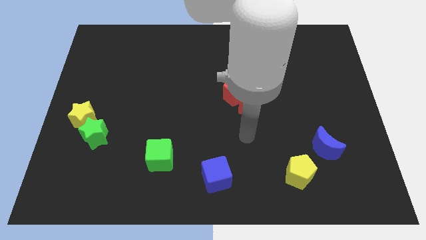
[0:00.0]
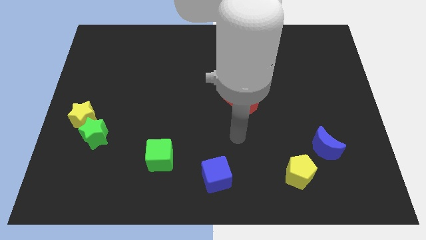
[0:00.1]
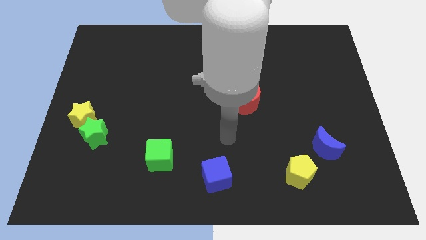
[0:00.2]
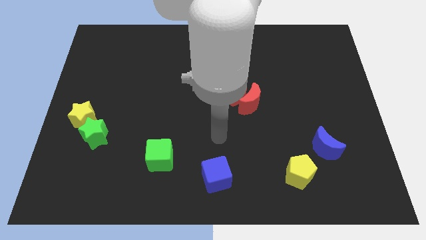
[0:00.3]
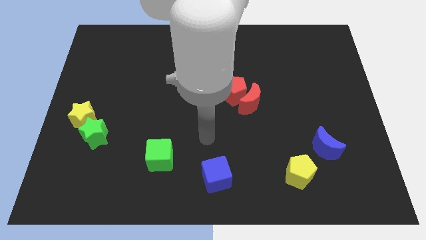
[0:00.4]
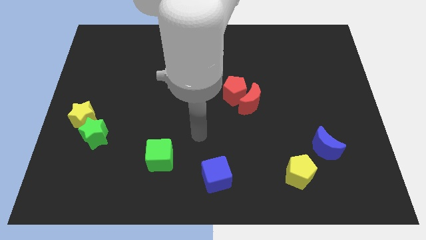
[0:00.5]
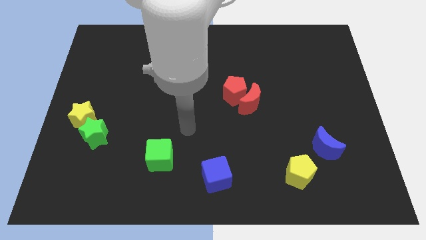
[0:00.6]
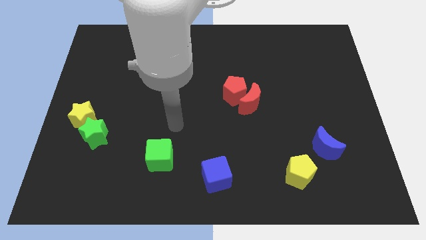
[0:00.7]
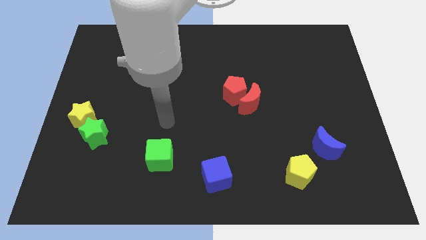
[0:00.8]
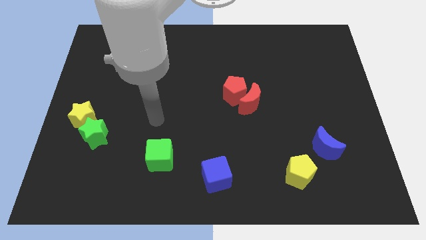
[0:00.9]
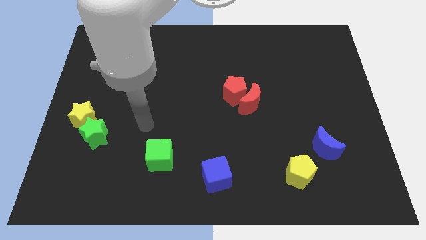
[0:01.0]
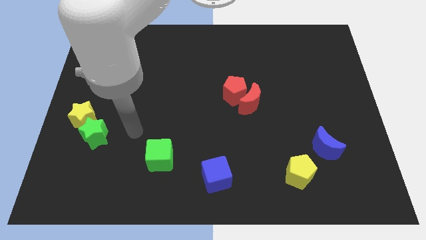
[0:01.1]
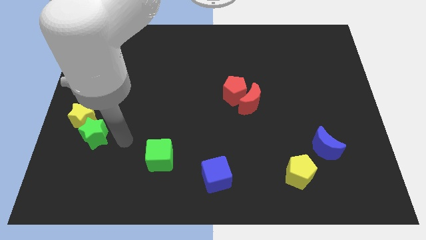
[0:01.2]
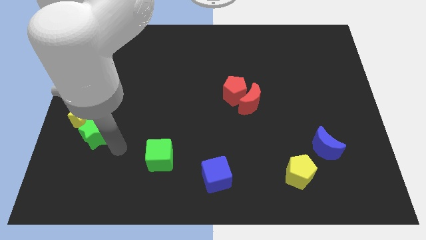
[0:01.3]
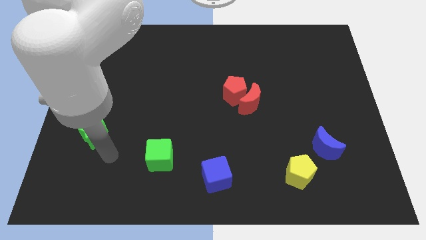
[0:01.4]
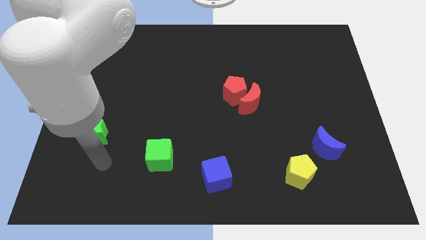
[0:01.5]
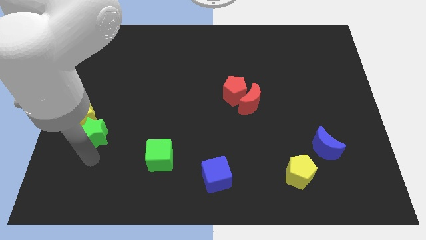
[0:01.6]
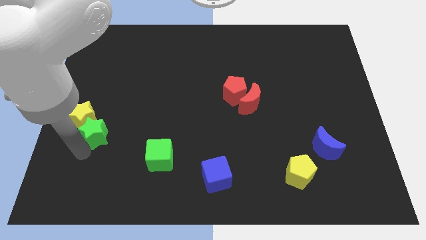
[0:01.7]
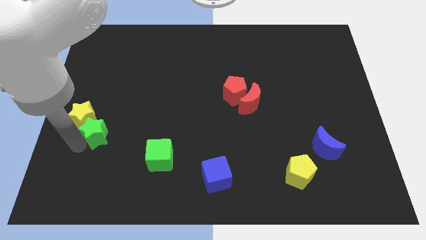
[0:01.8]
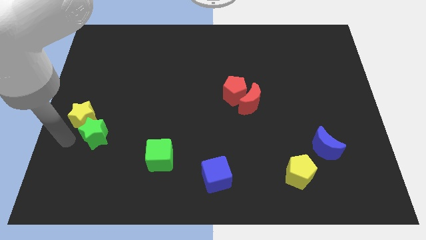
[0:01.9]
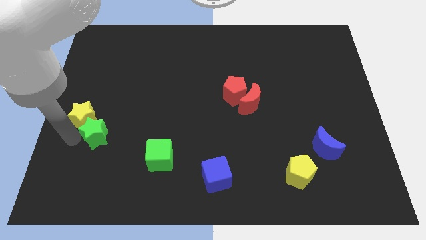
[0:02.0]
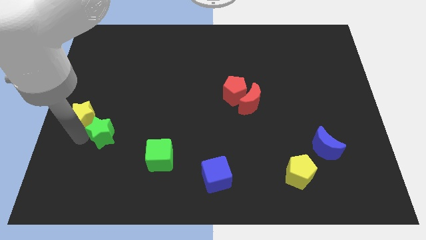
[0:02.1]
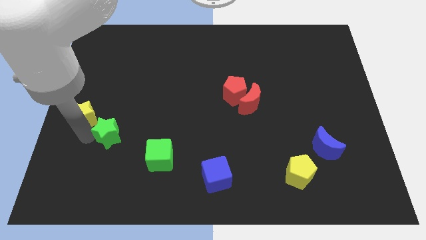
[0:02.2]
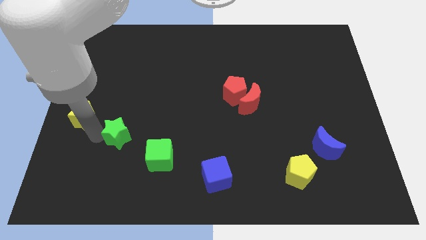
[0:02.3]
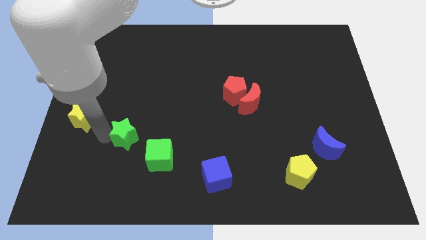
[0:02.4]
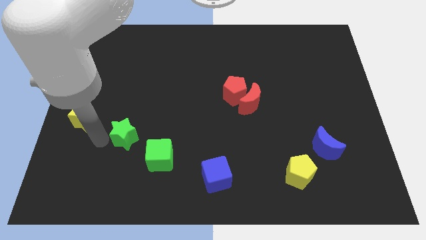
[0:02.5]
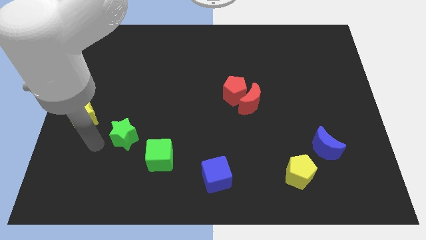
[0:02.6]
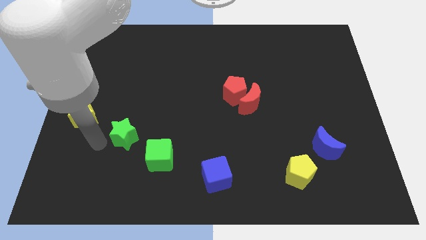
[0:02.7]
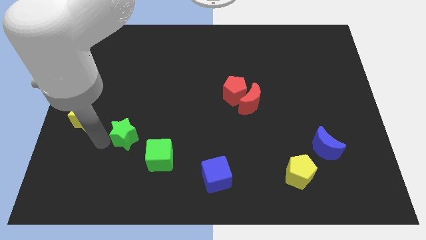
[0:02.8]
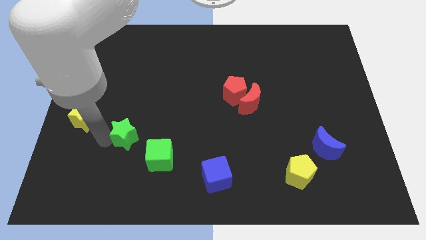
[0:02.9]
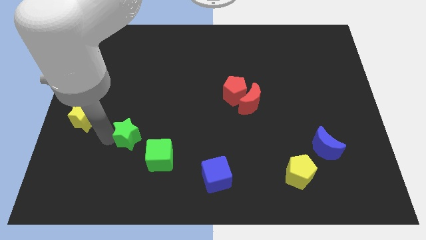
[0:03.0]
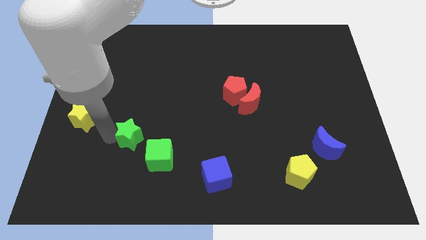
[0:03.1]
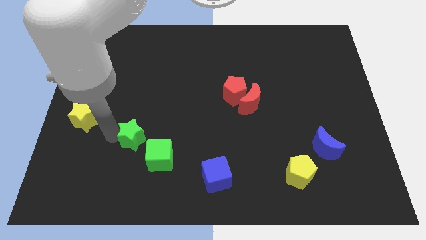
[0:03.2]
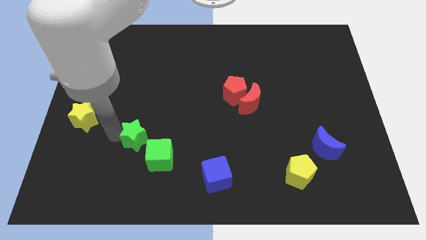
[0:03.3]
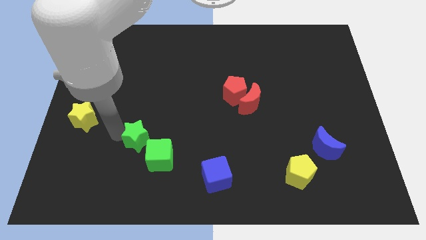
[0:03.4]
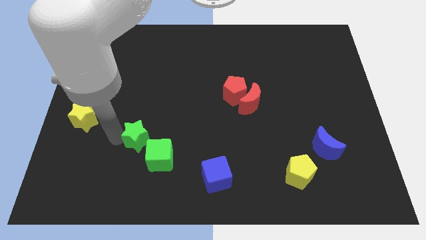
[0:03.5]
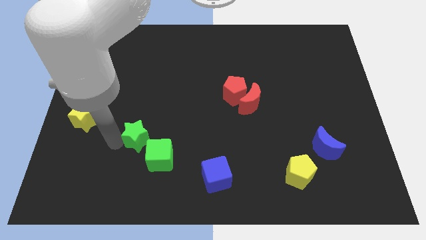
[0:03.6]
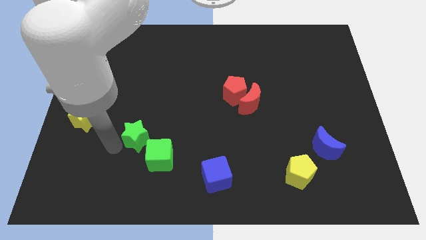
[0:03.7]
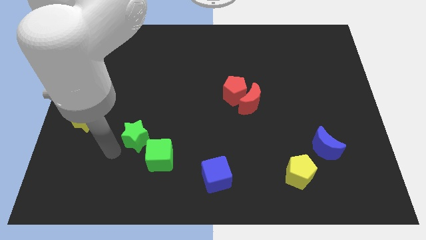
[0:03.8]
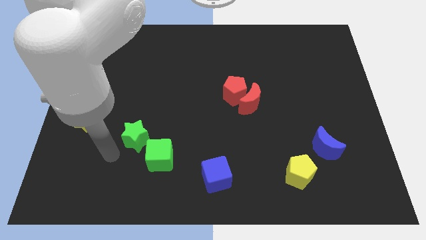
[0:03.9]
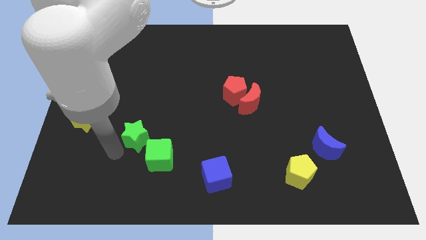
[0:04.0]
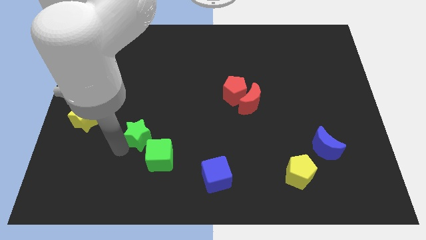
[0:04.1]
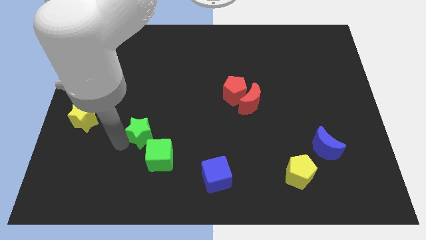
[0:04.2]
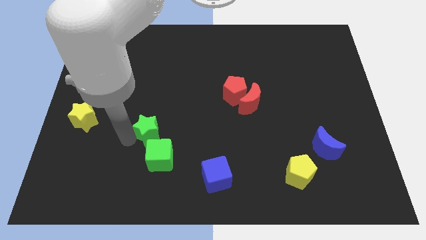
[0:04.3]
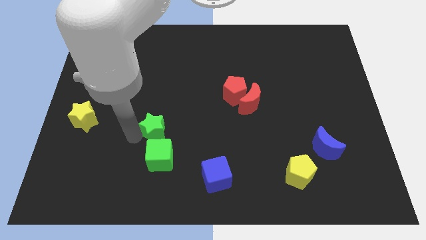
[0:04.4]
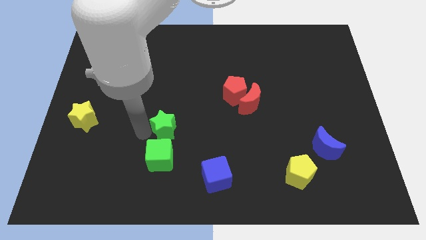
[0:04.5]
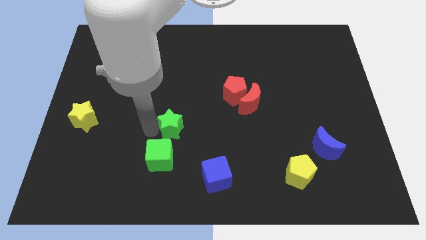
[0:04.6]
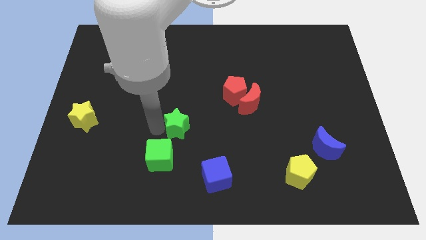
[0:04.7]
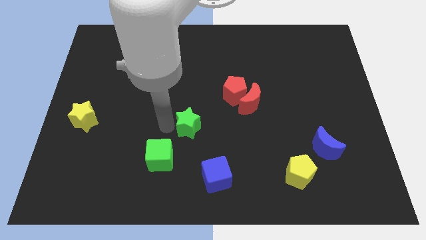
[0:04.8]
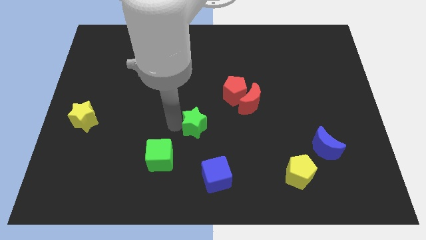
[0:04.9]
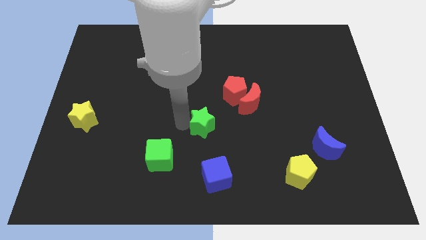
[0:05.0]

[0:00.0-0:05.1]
put the green star to the top side of the blue cube

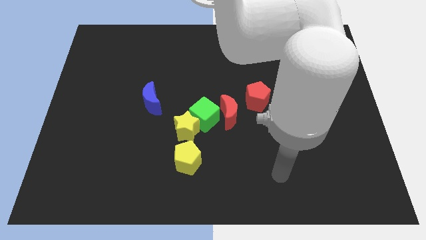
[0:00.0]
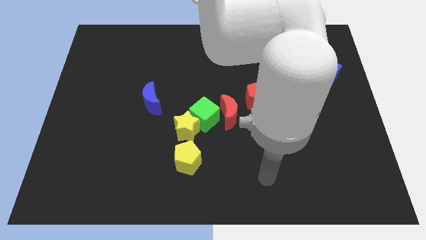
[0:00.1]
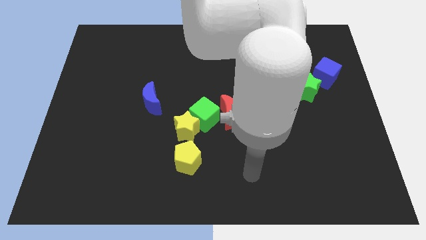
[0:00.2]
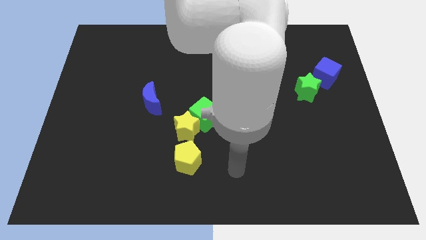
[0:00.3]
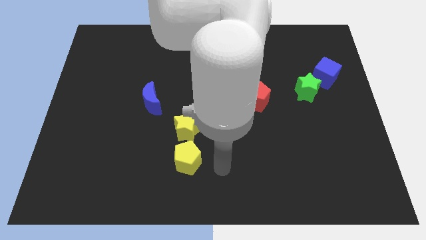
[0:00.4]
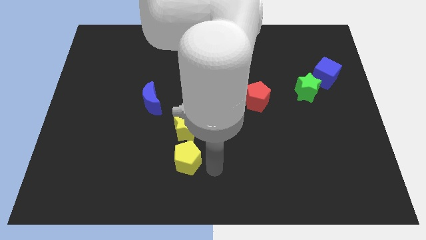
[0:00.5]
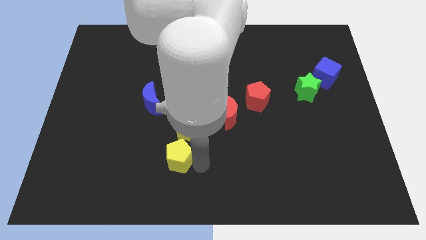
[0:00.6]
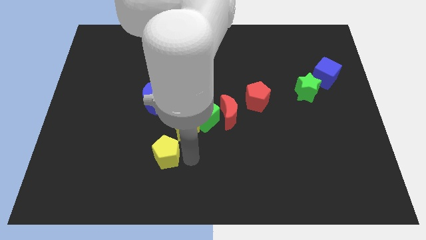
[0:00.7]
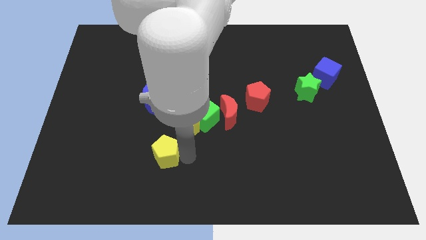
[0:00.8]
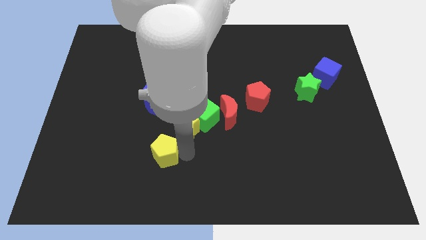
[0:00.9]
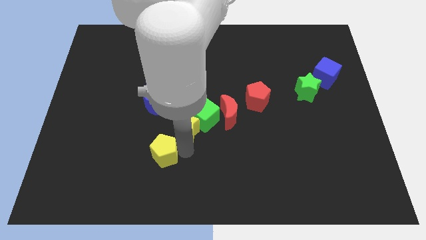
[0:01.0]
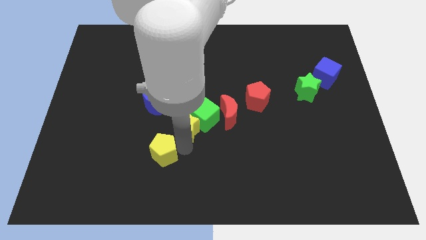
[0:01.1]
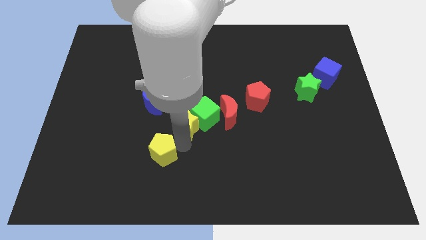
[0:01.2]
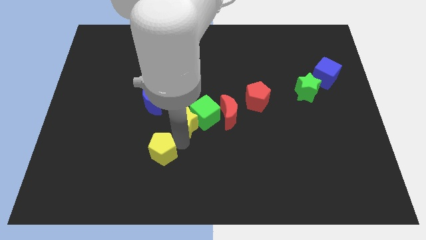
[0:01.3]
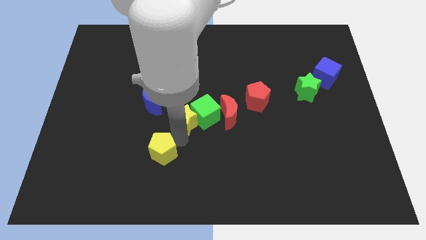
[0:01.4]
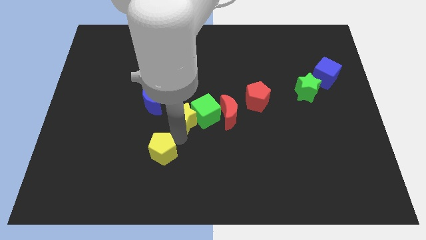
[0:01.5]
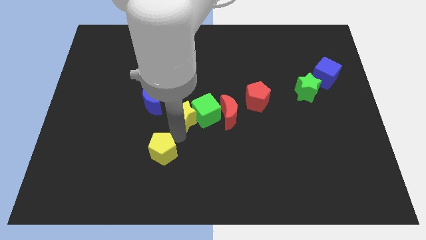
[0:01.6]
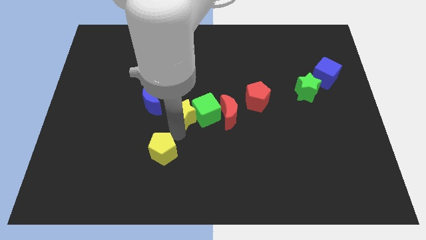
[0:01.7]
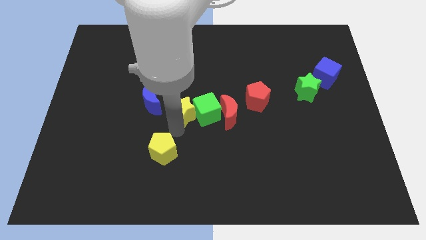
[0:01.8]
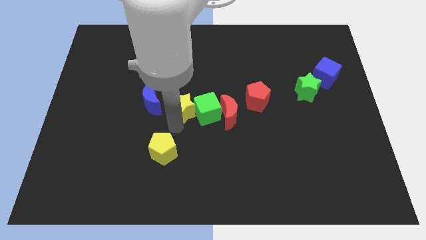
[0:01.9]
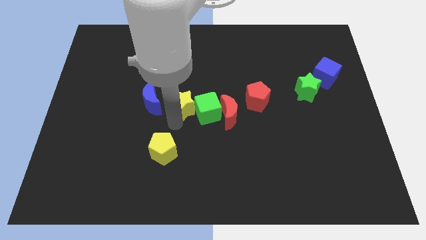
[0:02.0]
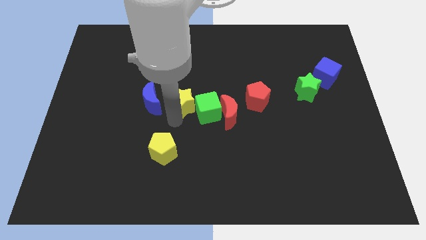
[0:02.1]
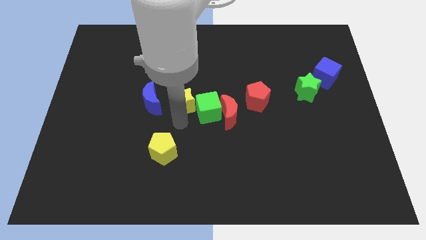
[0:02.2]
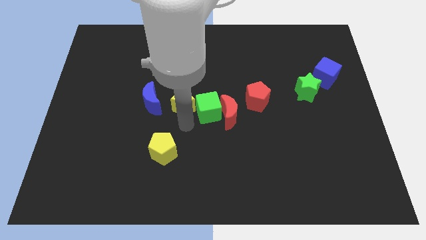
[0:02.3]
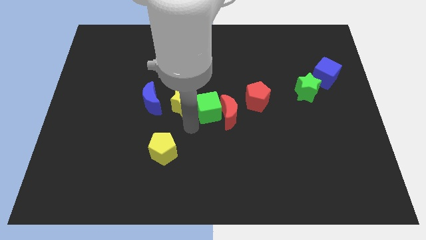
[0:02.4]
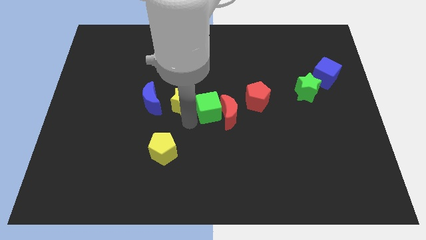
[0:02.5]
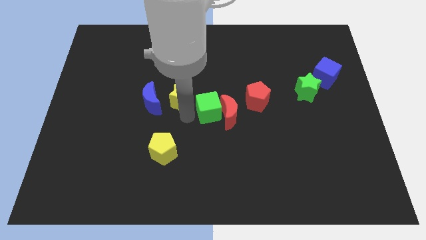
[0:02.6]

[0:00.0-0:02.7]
move the yellow star diagonally up and to the right of the blue moon
